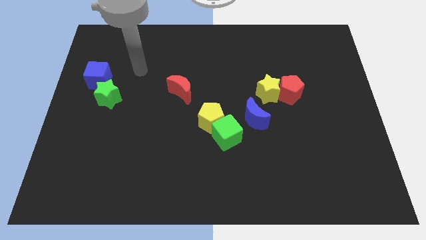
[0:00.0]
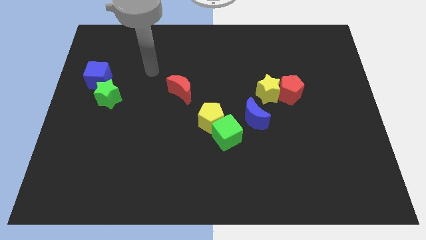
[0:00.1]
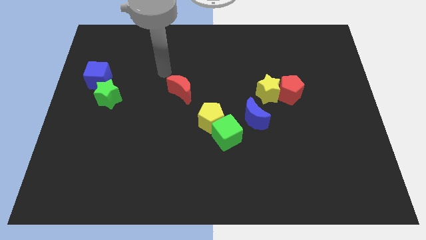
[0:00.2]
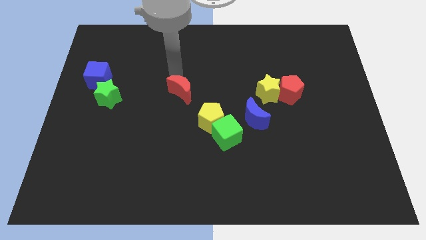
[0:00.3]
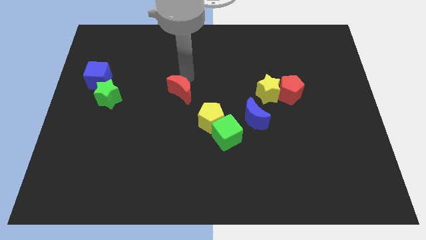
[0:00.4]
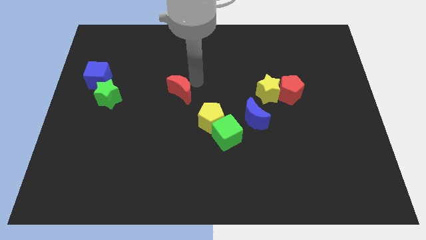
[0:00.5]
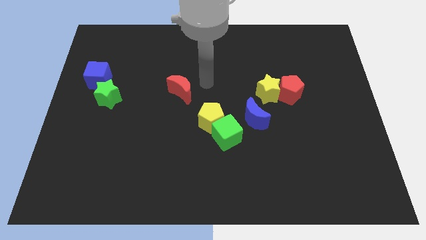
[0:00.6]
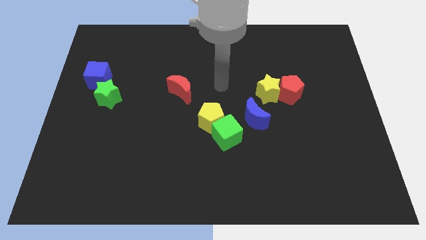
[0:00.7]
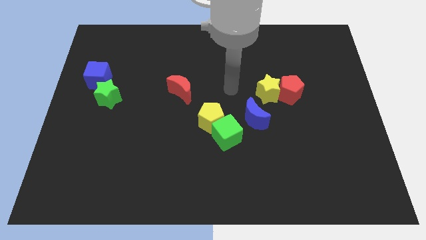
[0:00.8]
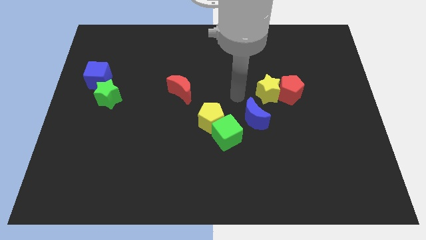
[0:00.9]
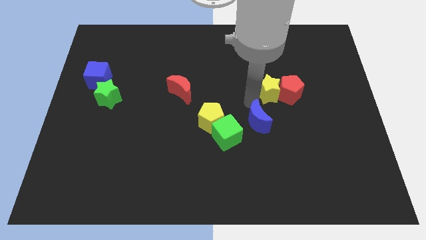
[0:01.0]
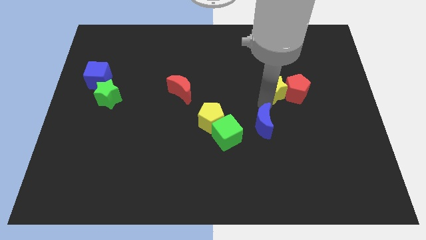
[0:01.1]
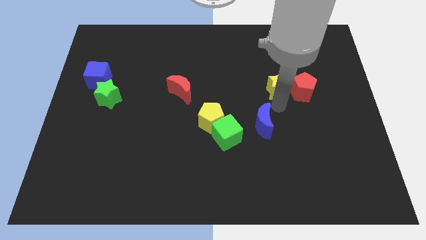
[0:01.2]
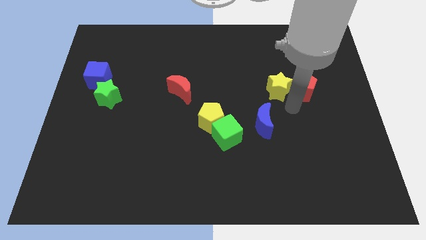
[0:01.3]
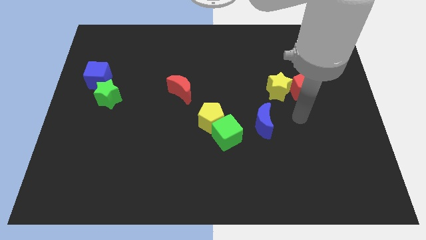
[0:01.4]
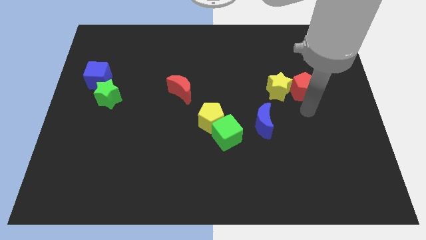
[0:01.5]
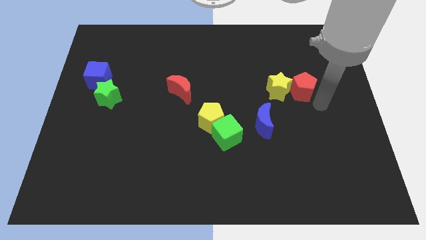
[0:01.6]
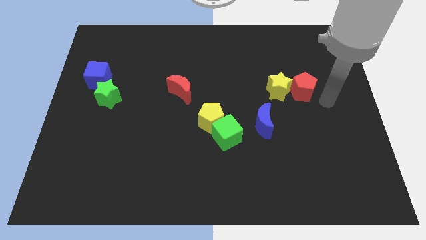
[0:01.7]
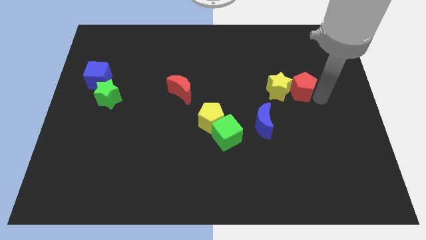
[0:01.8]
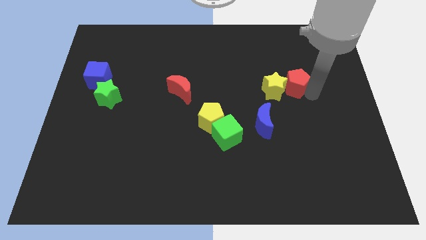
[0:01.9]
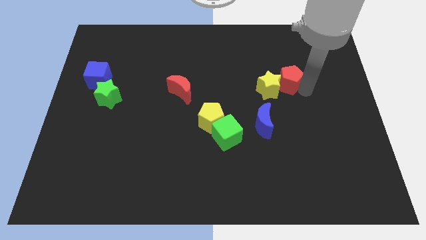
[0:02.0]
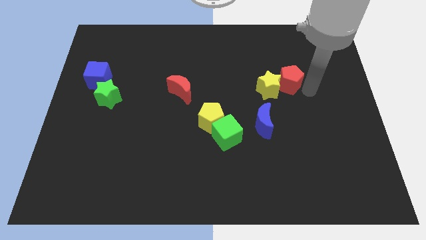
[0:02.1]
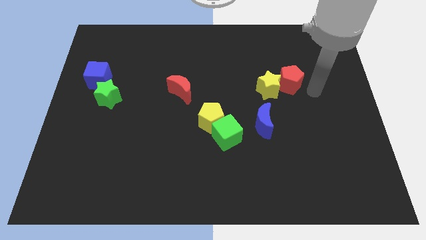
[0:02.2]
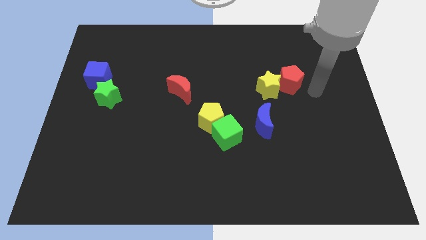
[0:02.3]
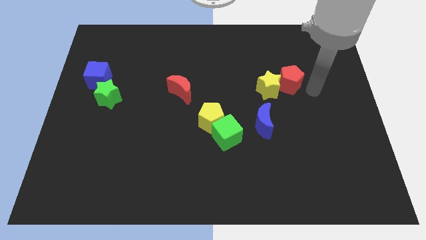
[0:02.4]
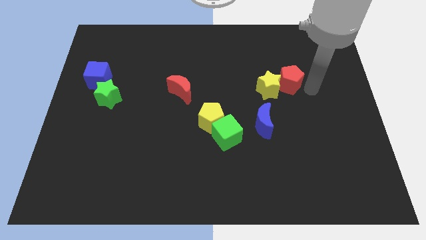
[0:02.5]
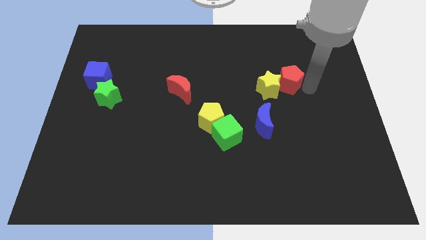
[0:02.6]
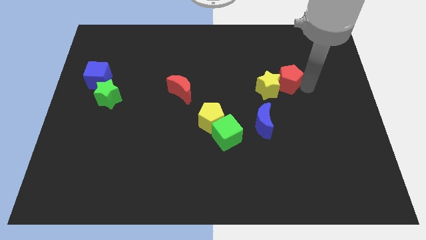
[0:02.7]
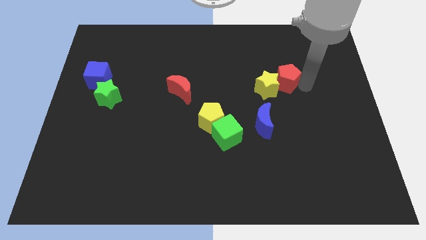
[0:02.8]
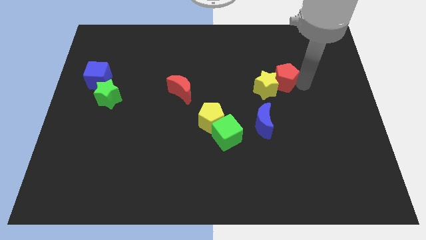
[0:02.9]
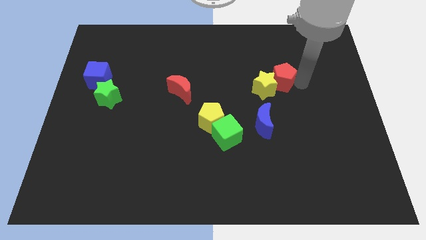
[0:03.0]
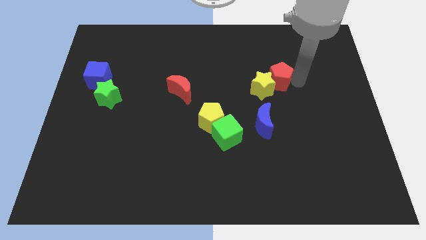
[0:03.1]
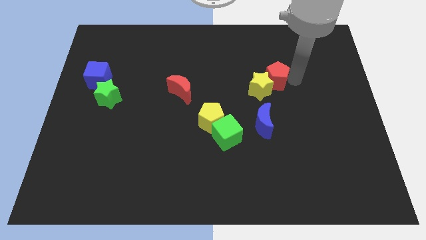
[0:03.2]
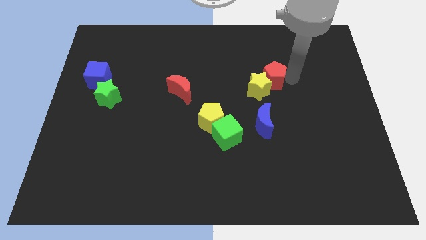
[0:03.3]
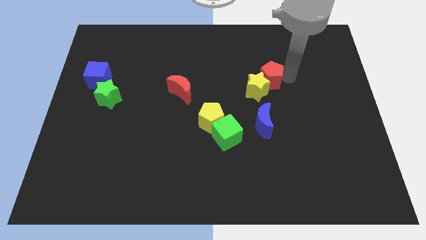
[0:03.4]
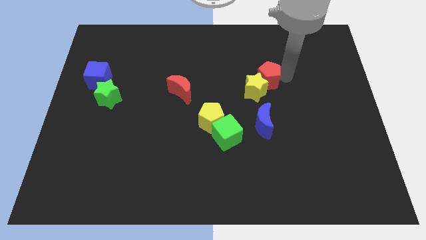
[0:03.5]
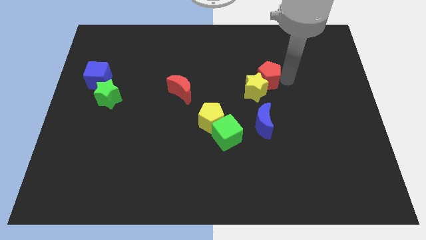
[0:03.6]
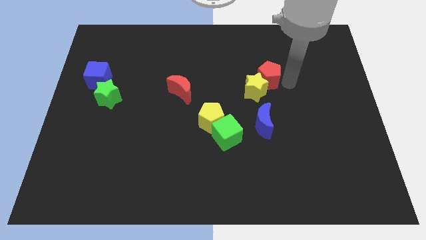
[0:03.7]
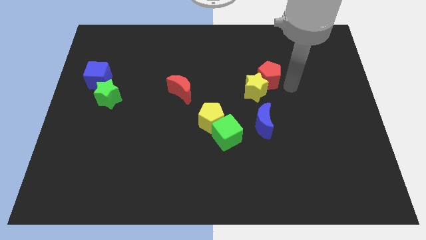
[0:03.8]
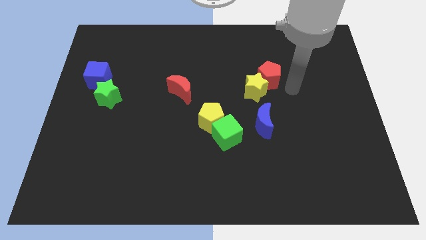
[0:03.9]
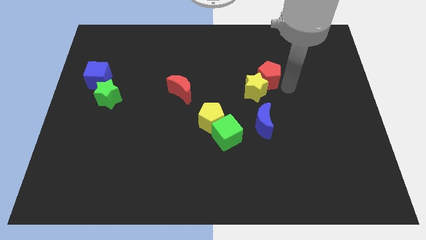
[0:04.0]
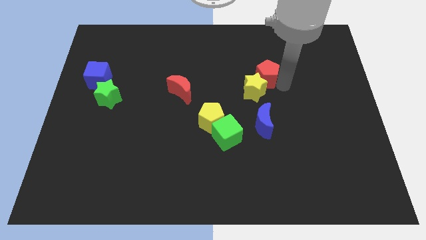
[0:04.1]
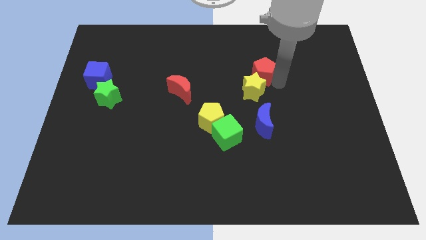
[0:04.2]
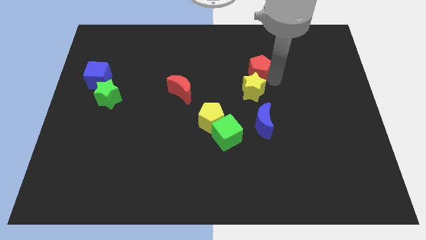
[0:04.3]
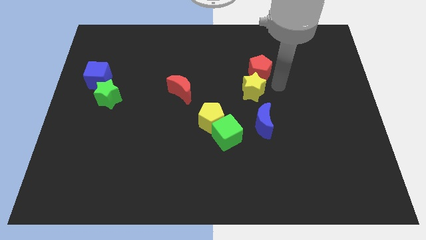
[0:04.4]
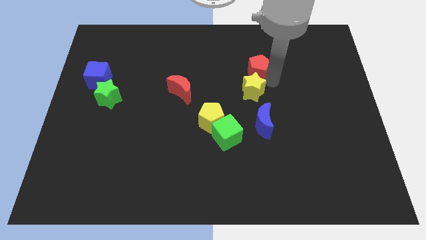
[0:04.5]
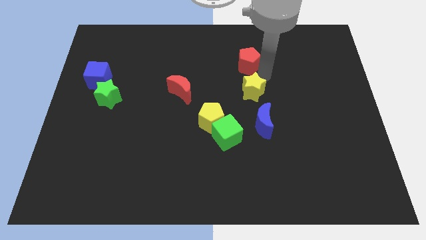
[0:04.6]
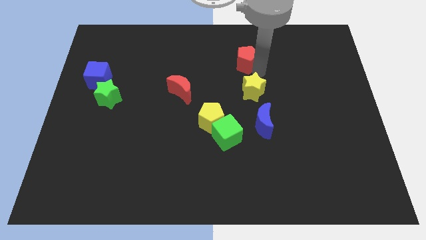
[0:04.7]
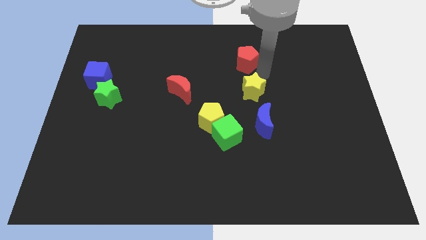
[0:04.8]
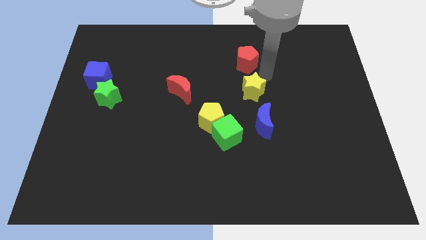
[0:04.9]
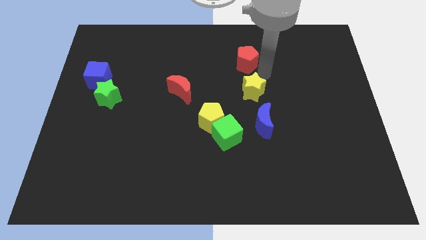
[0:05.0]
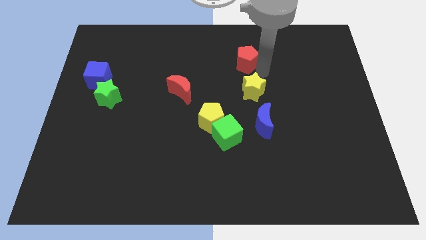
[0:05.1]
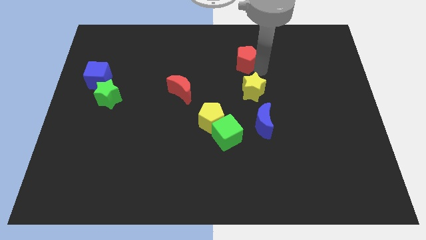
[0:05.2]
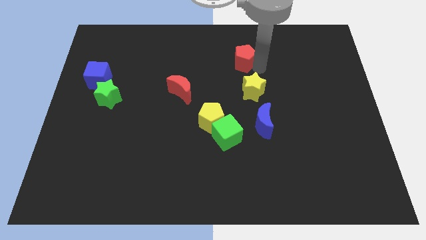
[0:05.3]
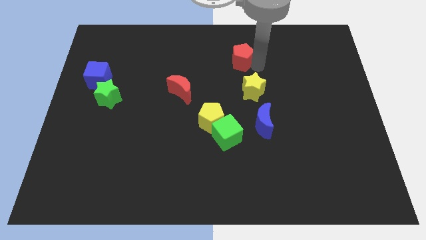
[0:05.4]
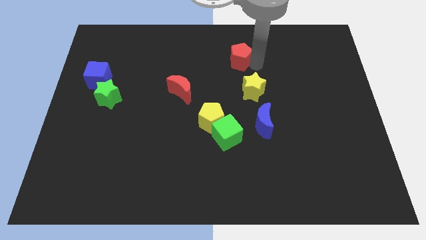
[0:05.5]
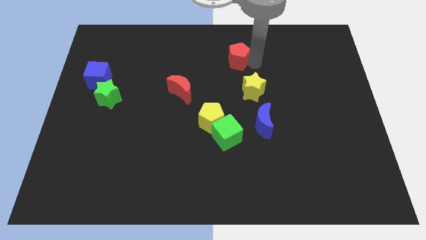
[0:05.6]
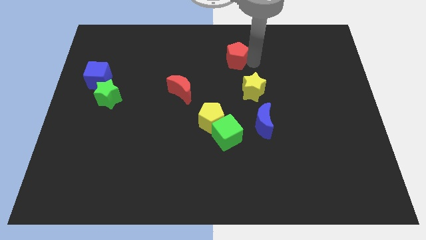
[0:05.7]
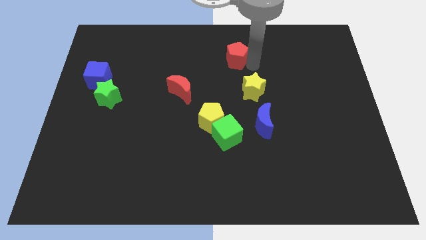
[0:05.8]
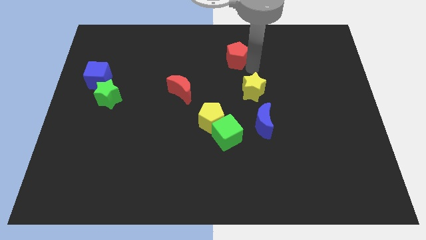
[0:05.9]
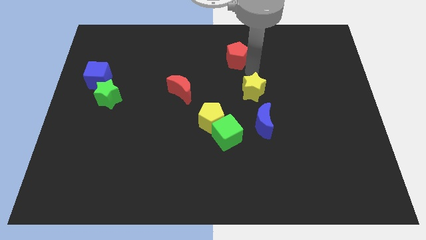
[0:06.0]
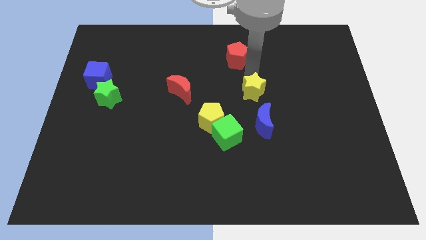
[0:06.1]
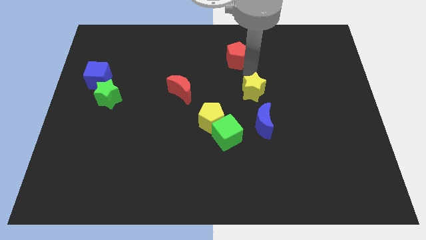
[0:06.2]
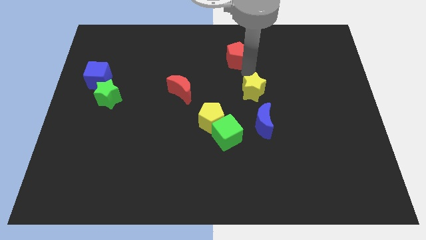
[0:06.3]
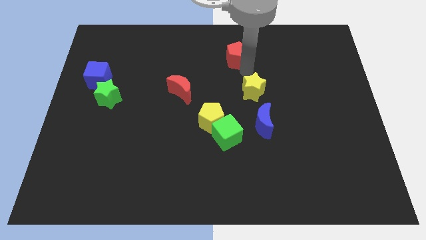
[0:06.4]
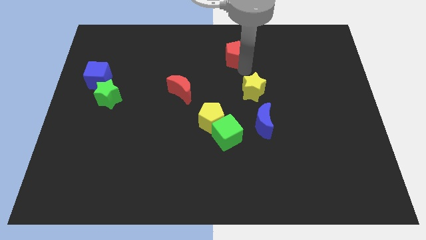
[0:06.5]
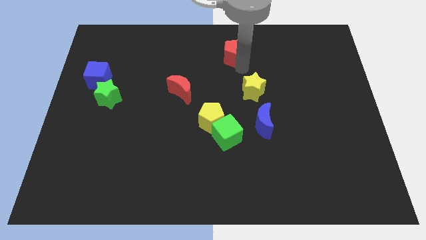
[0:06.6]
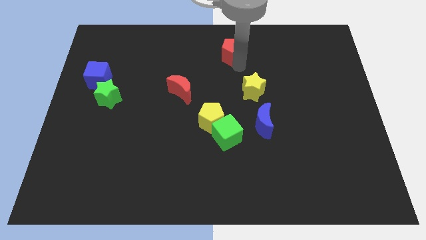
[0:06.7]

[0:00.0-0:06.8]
push the red pentagon to the top
